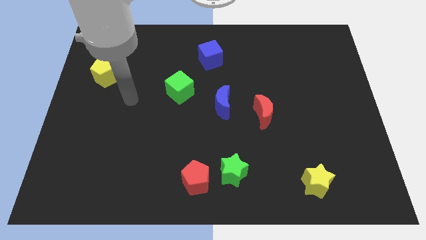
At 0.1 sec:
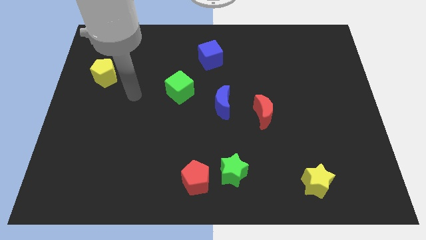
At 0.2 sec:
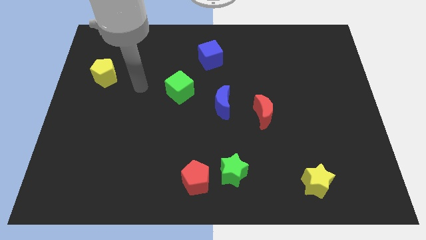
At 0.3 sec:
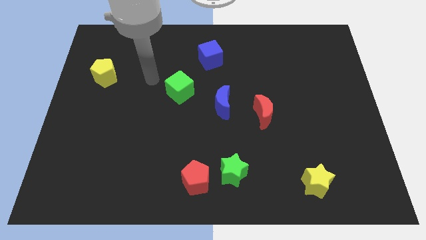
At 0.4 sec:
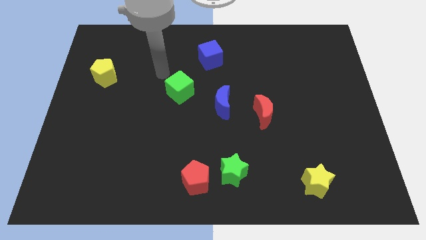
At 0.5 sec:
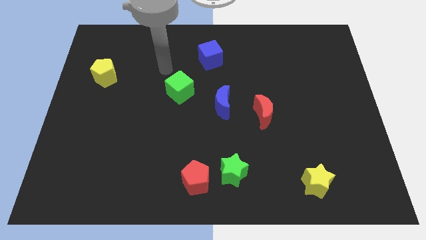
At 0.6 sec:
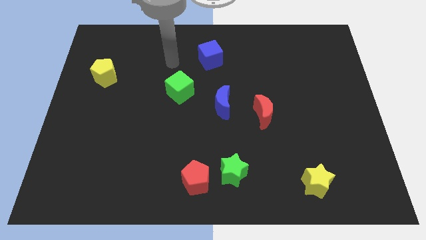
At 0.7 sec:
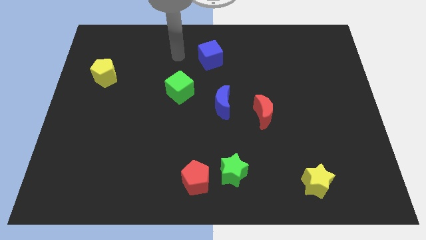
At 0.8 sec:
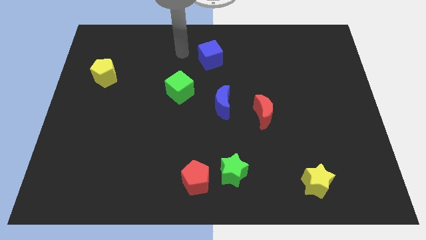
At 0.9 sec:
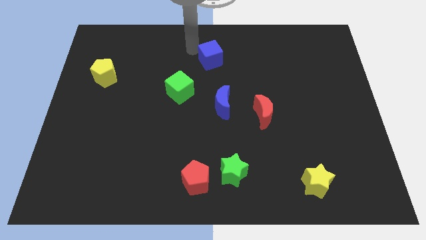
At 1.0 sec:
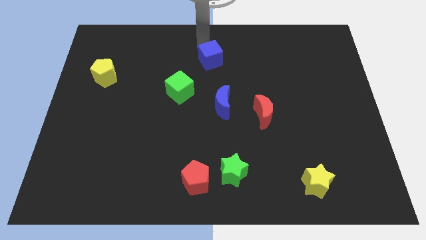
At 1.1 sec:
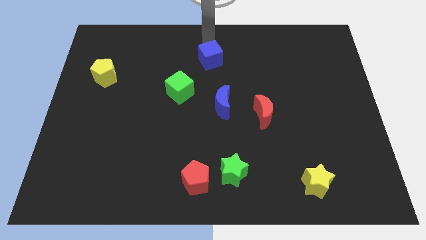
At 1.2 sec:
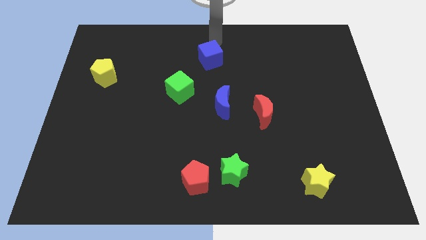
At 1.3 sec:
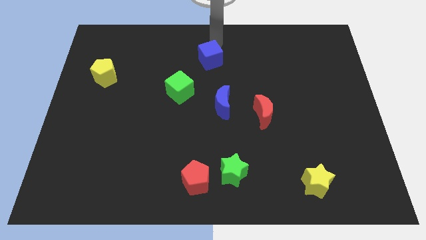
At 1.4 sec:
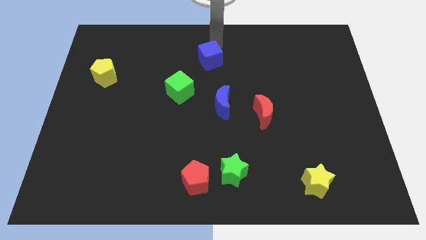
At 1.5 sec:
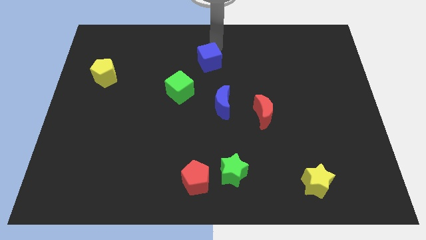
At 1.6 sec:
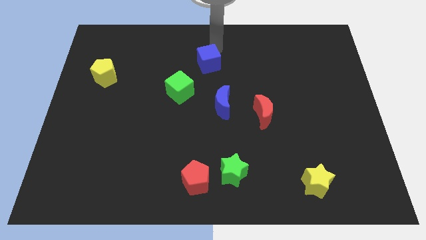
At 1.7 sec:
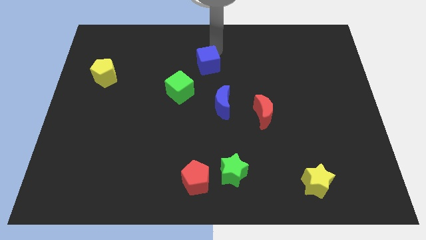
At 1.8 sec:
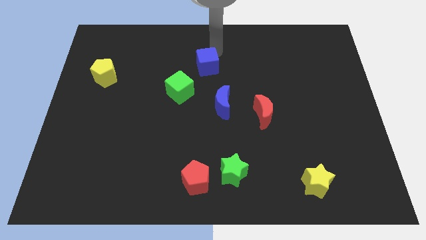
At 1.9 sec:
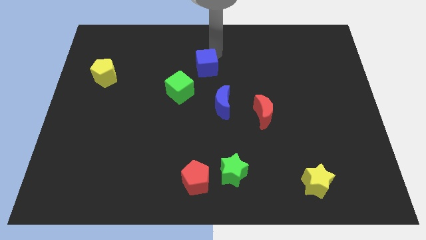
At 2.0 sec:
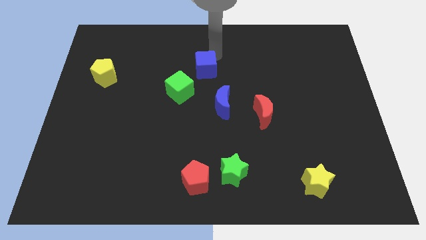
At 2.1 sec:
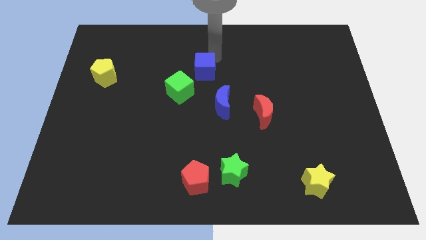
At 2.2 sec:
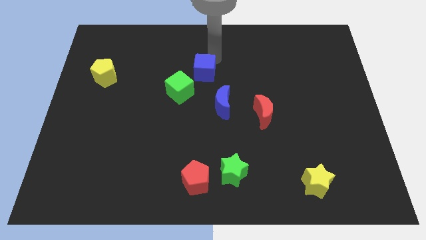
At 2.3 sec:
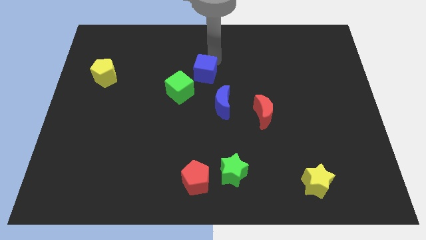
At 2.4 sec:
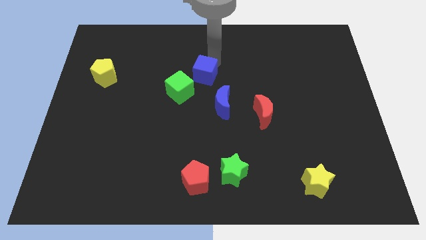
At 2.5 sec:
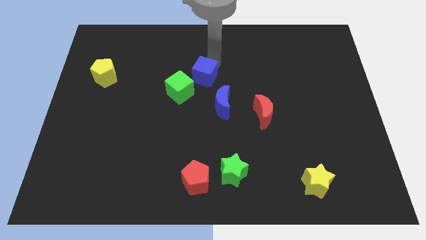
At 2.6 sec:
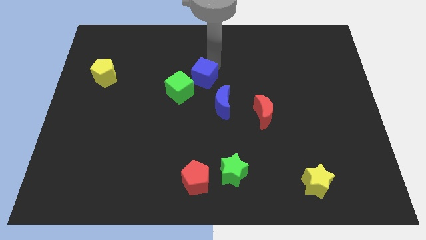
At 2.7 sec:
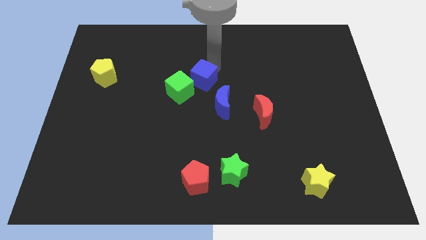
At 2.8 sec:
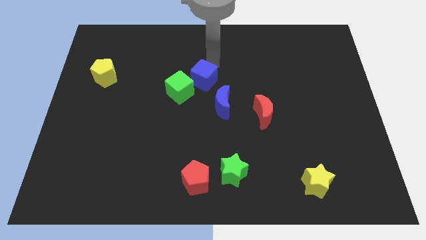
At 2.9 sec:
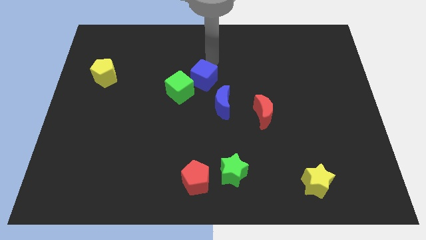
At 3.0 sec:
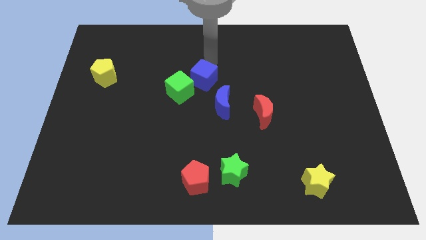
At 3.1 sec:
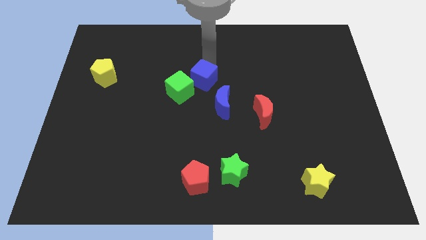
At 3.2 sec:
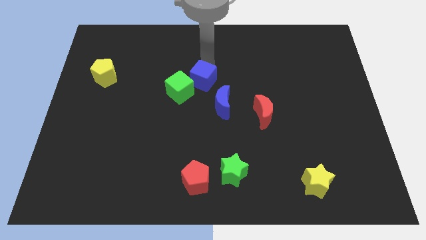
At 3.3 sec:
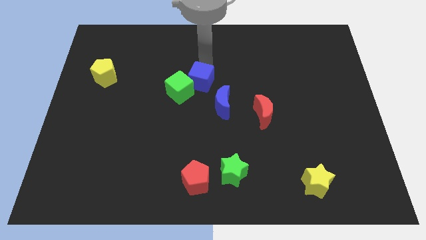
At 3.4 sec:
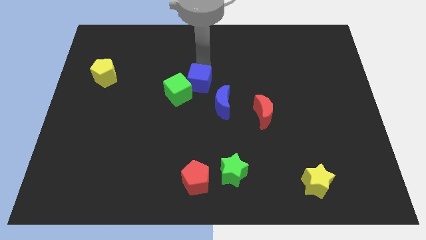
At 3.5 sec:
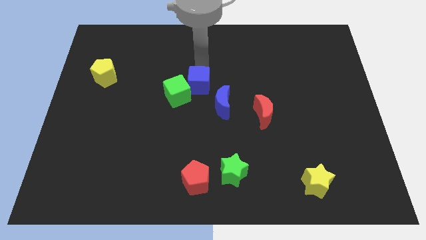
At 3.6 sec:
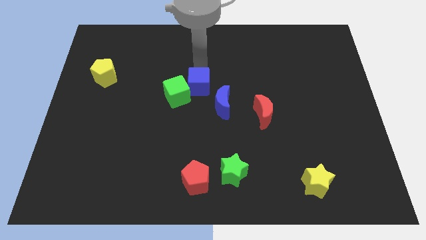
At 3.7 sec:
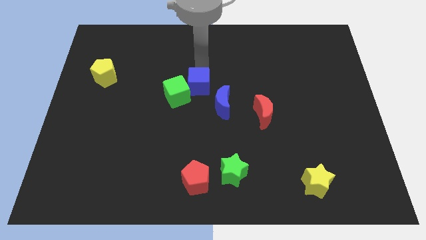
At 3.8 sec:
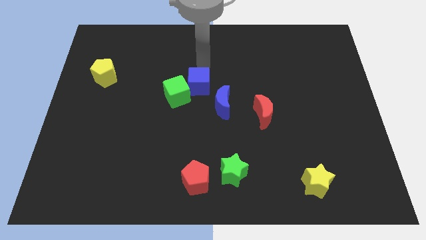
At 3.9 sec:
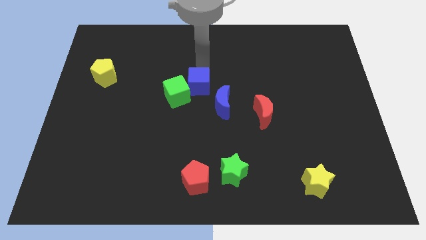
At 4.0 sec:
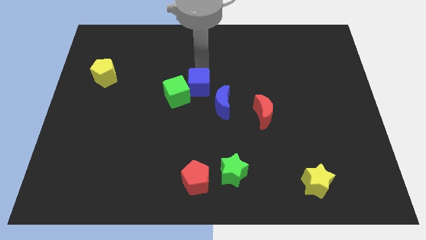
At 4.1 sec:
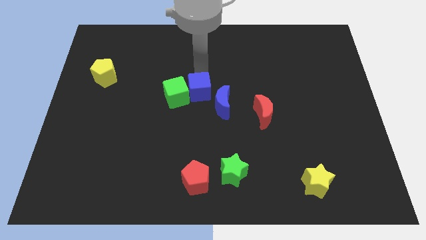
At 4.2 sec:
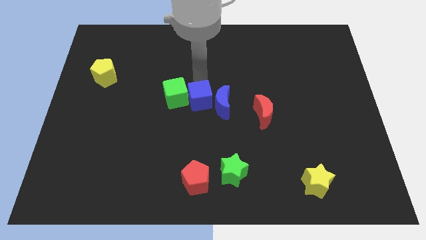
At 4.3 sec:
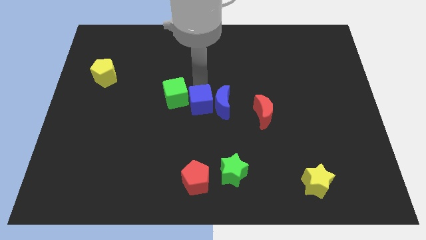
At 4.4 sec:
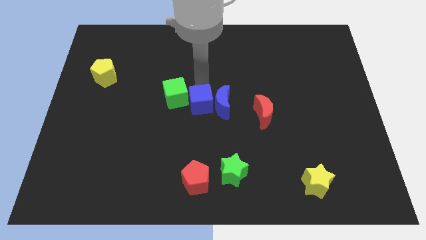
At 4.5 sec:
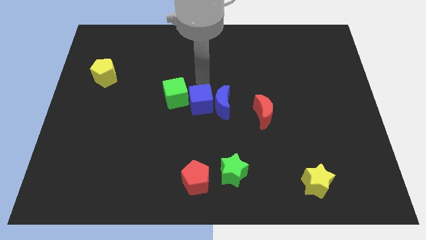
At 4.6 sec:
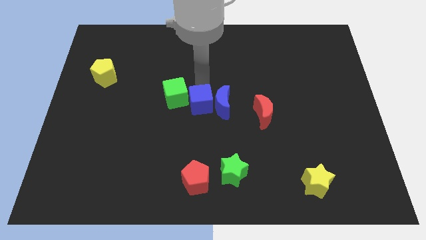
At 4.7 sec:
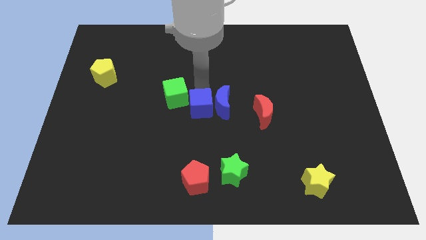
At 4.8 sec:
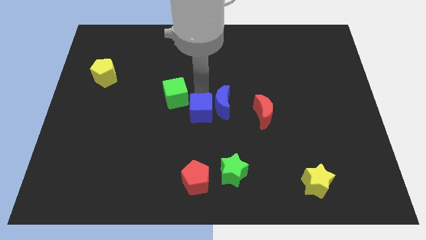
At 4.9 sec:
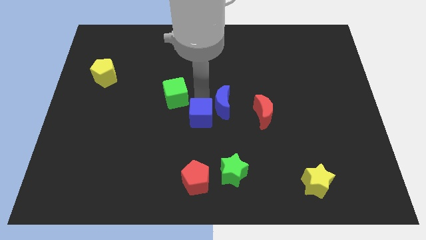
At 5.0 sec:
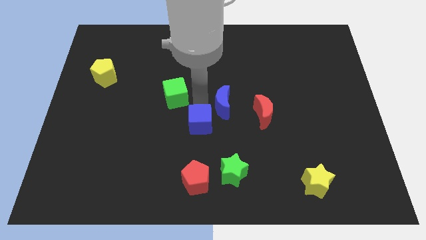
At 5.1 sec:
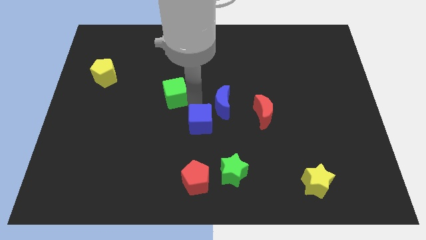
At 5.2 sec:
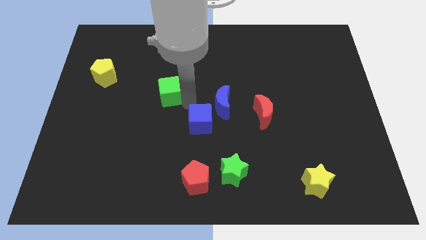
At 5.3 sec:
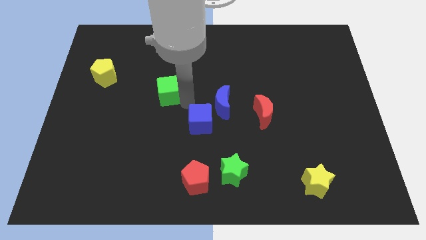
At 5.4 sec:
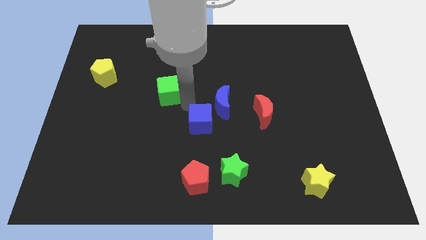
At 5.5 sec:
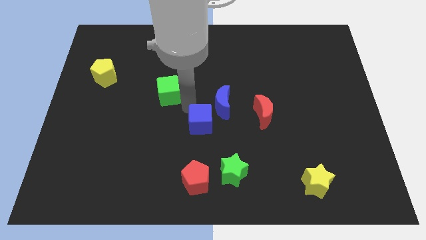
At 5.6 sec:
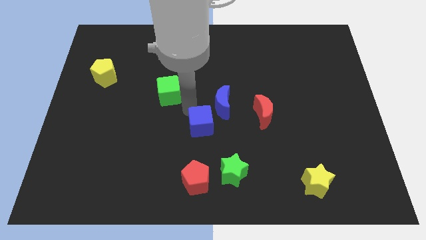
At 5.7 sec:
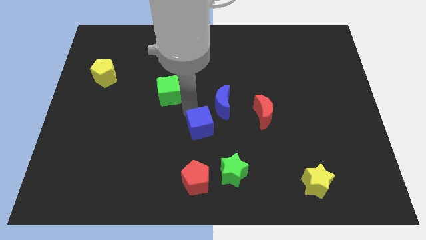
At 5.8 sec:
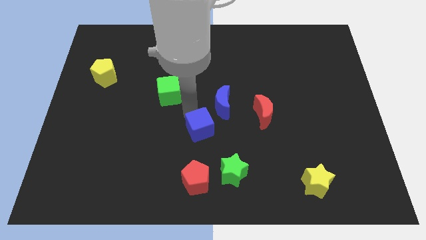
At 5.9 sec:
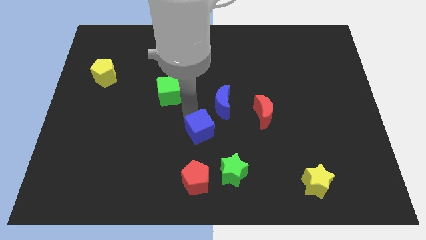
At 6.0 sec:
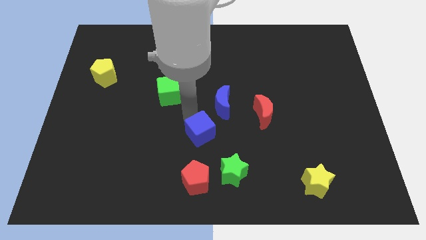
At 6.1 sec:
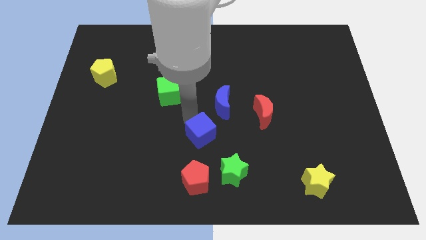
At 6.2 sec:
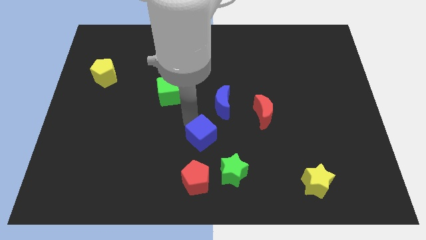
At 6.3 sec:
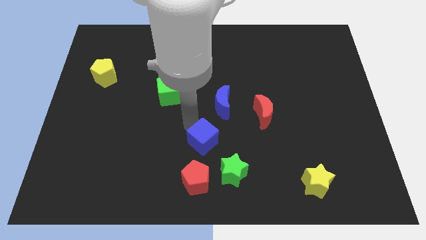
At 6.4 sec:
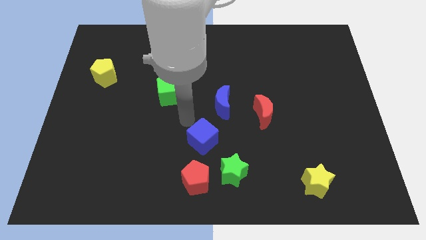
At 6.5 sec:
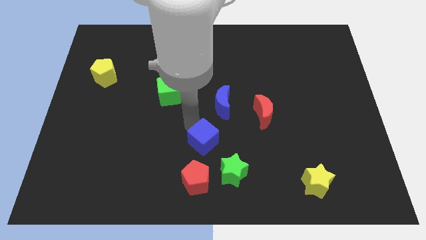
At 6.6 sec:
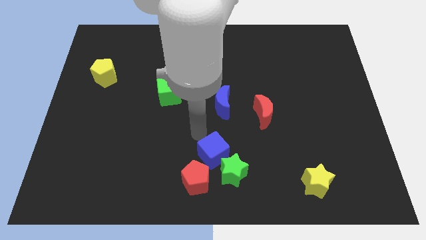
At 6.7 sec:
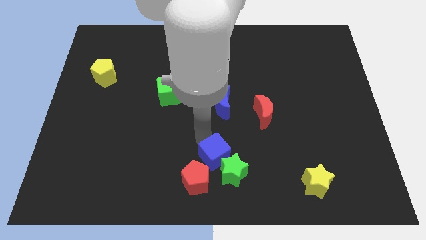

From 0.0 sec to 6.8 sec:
put the blue cube towards the green star

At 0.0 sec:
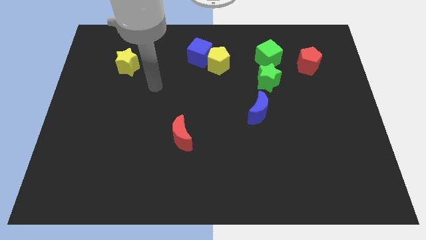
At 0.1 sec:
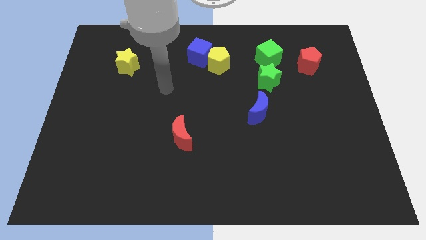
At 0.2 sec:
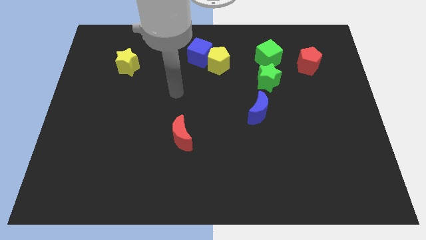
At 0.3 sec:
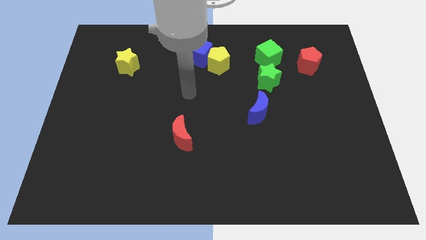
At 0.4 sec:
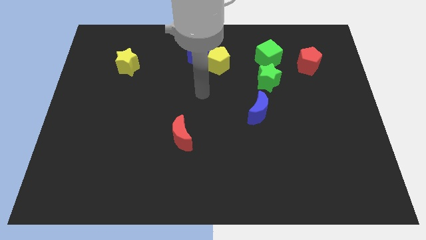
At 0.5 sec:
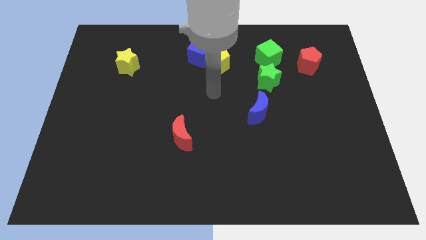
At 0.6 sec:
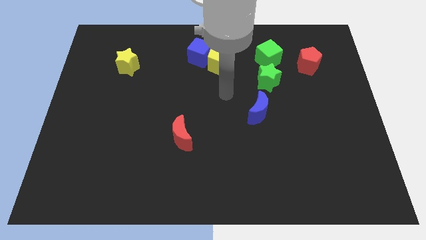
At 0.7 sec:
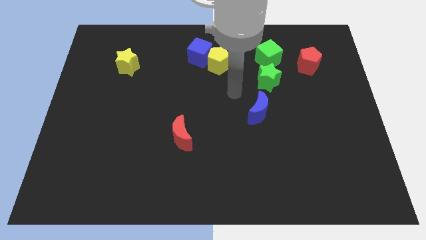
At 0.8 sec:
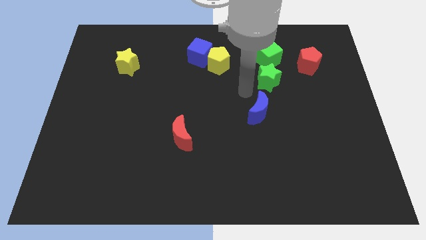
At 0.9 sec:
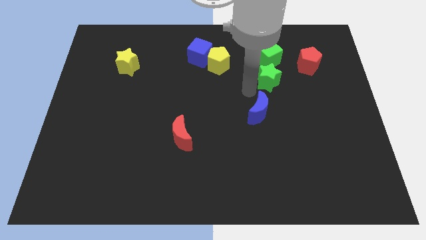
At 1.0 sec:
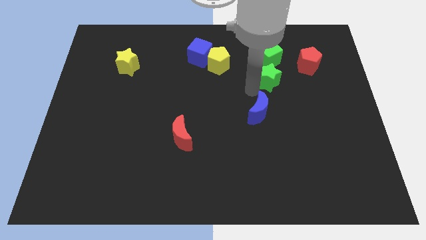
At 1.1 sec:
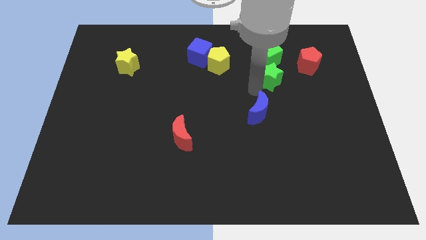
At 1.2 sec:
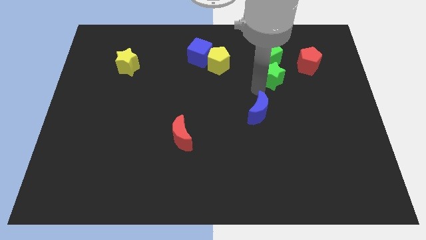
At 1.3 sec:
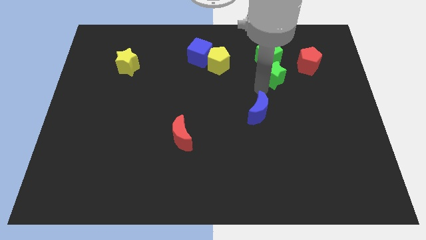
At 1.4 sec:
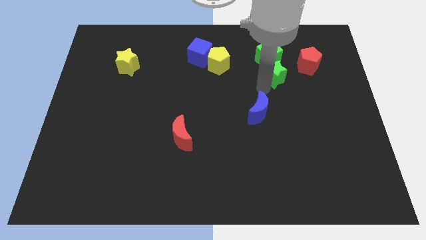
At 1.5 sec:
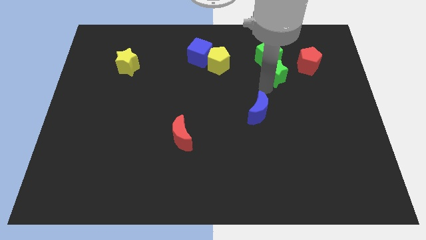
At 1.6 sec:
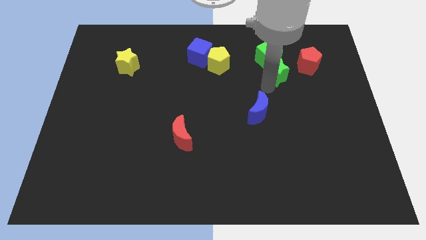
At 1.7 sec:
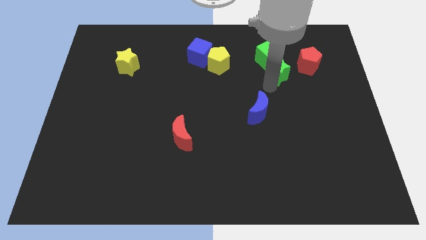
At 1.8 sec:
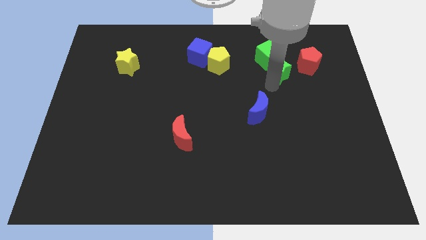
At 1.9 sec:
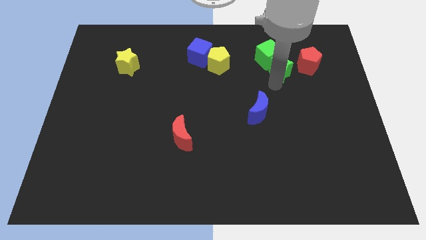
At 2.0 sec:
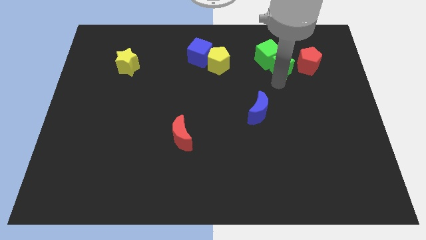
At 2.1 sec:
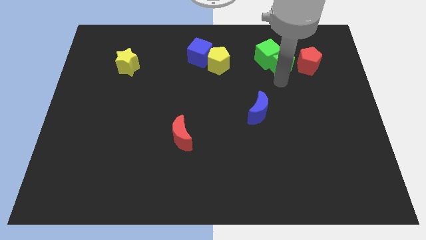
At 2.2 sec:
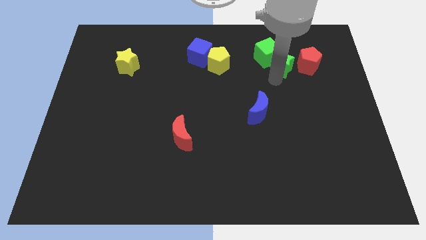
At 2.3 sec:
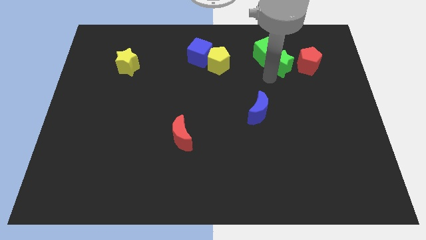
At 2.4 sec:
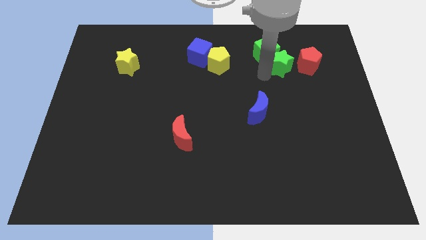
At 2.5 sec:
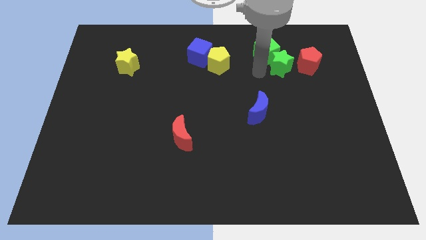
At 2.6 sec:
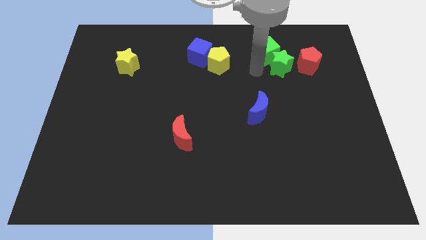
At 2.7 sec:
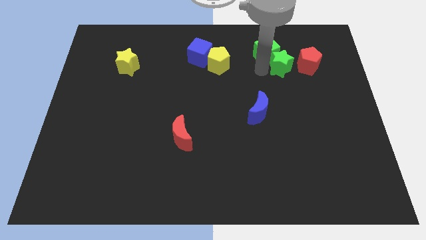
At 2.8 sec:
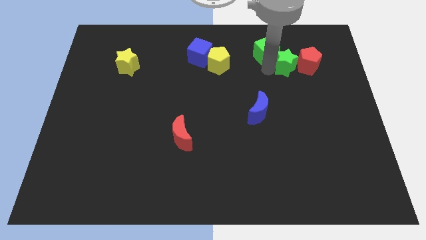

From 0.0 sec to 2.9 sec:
slide the green star next to the red pentagon
